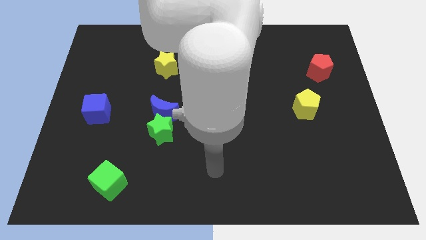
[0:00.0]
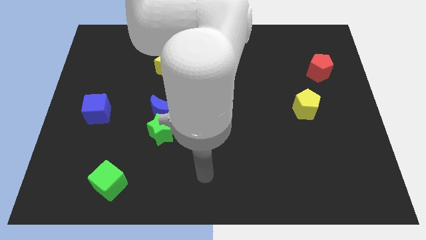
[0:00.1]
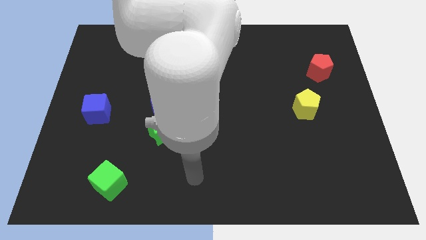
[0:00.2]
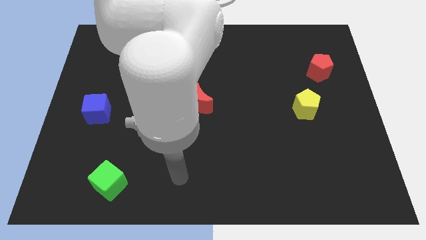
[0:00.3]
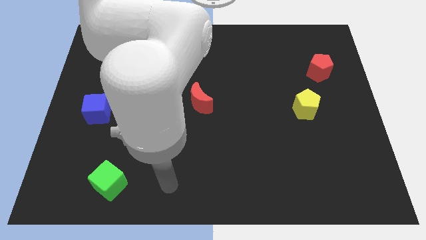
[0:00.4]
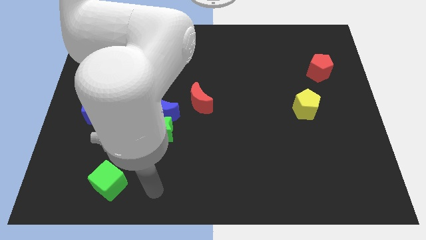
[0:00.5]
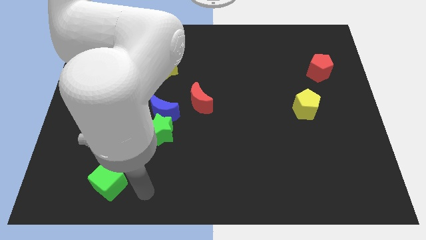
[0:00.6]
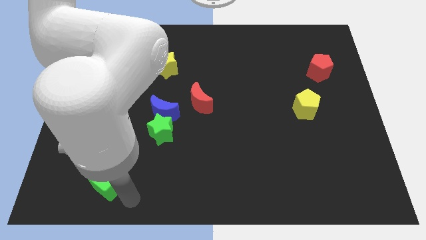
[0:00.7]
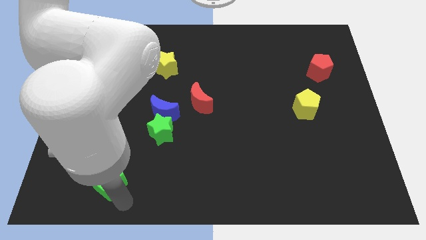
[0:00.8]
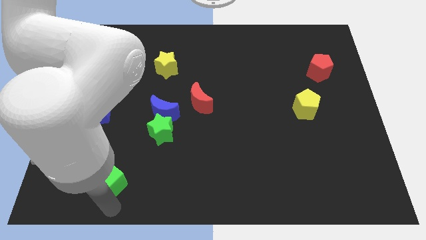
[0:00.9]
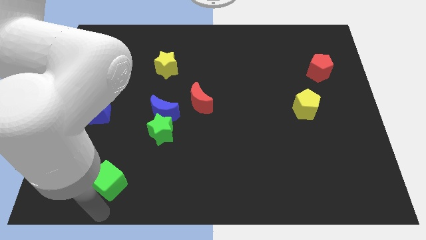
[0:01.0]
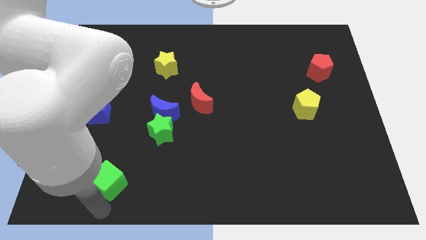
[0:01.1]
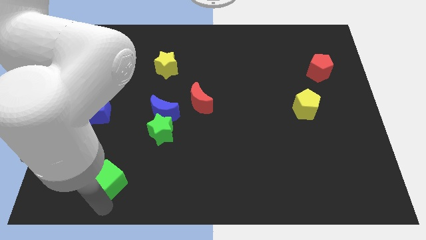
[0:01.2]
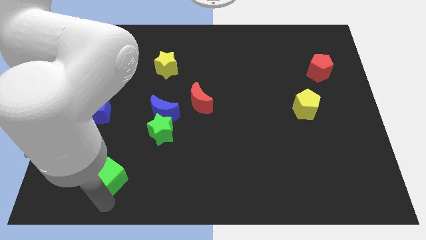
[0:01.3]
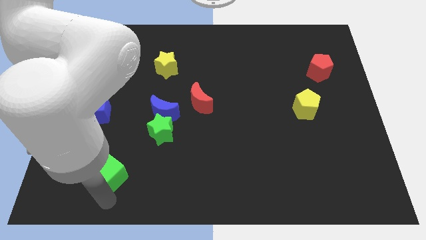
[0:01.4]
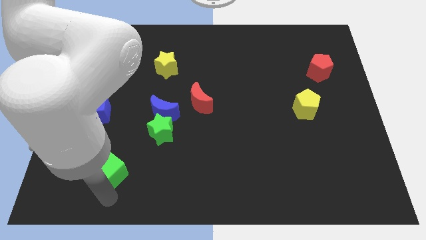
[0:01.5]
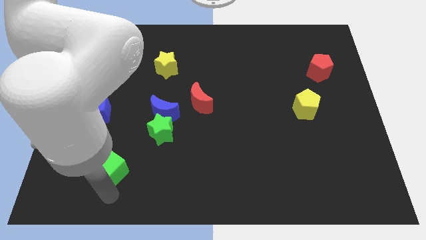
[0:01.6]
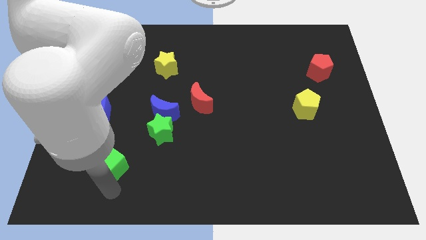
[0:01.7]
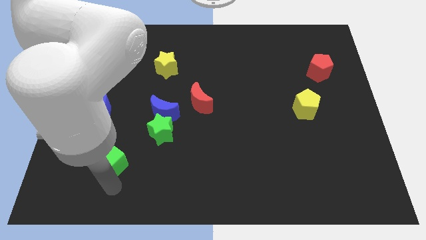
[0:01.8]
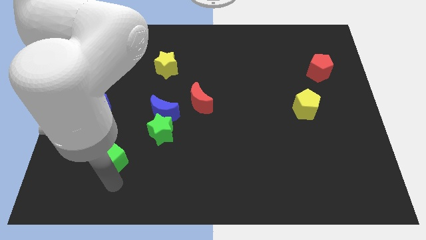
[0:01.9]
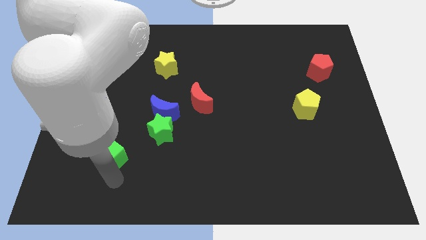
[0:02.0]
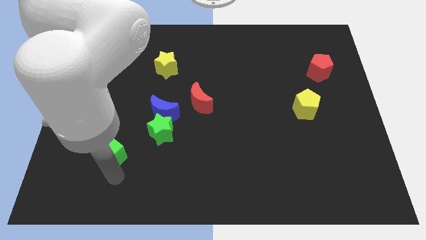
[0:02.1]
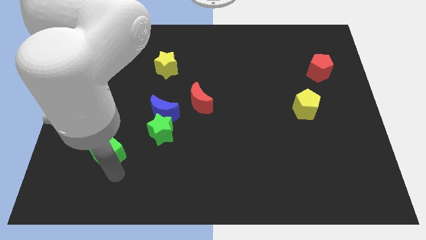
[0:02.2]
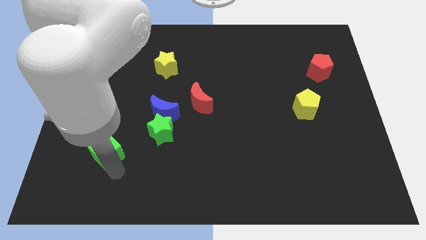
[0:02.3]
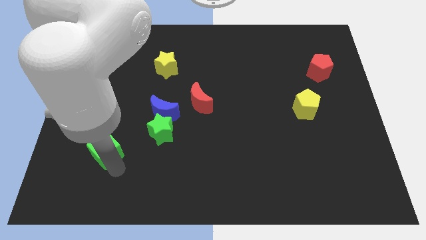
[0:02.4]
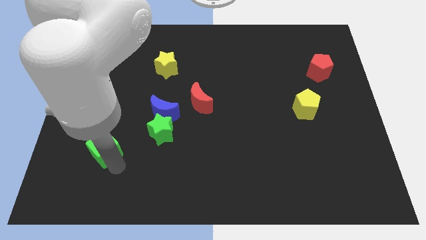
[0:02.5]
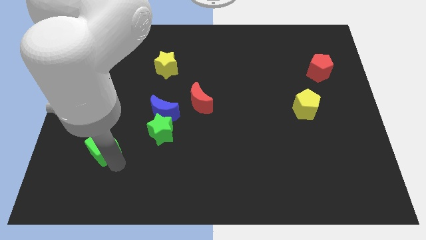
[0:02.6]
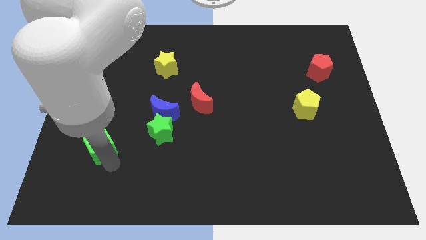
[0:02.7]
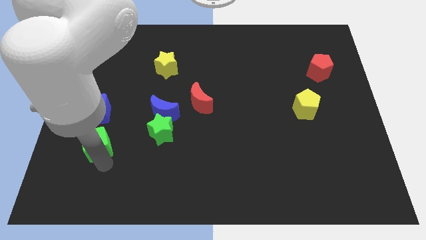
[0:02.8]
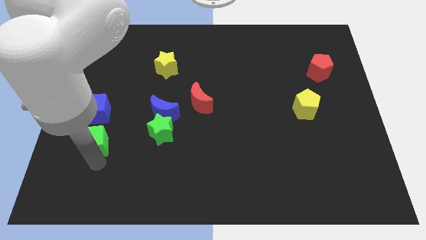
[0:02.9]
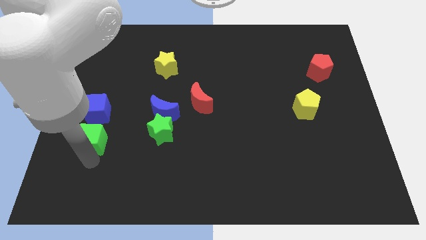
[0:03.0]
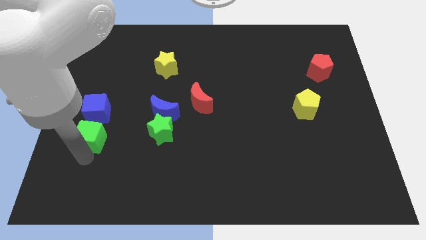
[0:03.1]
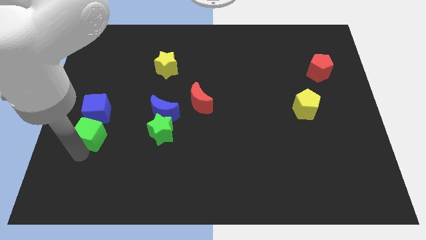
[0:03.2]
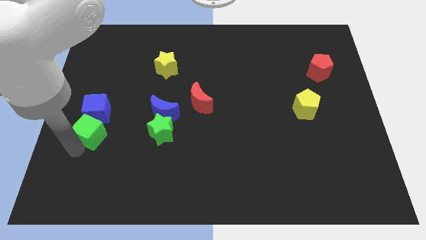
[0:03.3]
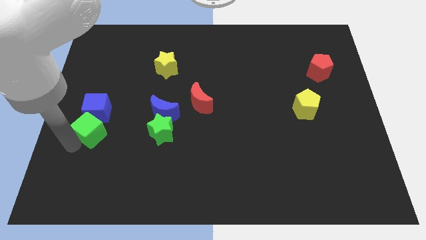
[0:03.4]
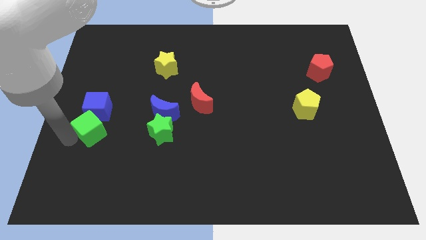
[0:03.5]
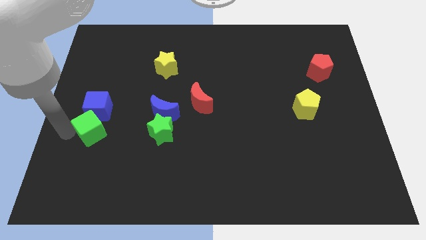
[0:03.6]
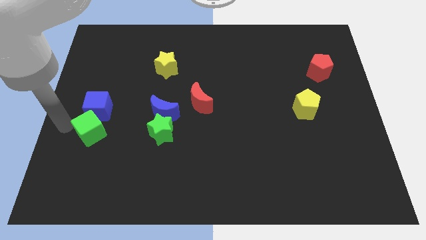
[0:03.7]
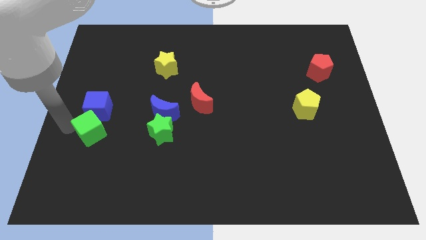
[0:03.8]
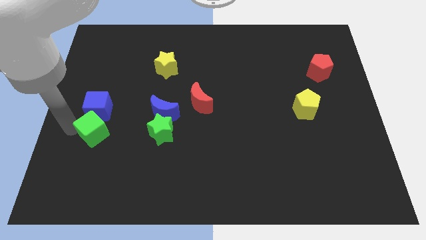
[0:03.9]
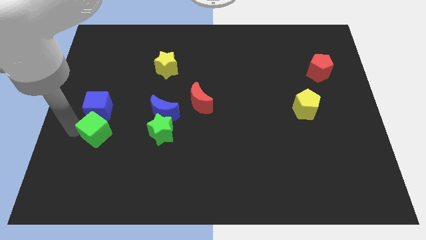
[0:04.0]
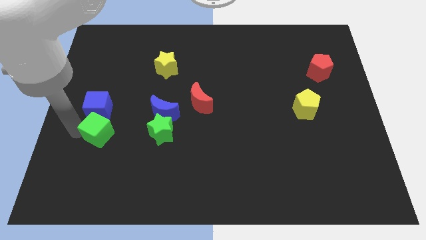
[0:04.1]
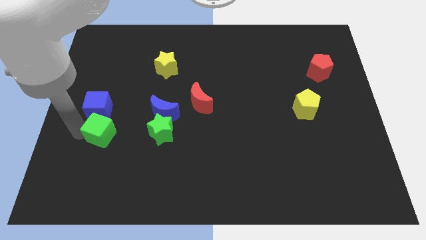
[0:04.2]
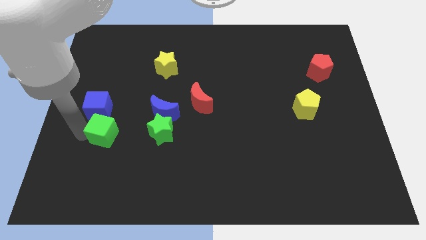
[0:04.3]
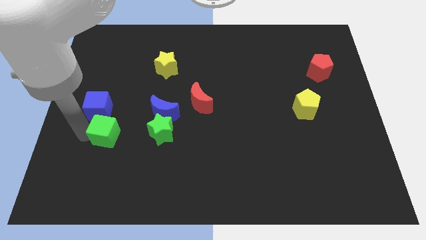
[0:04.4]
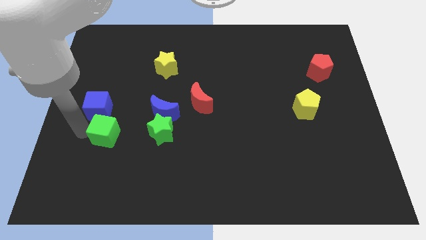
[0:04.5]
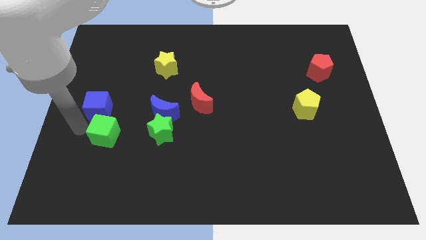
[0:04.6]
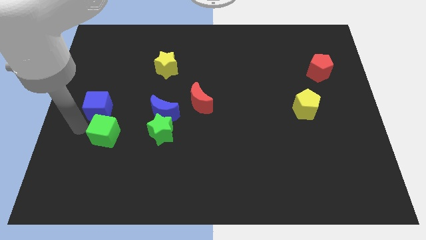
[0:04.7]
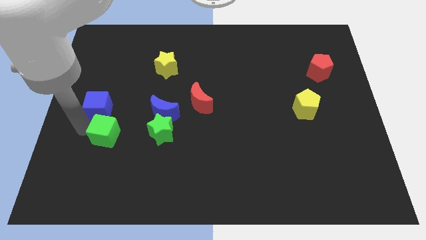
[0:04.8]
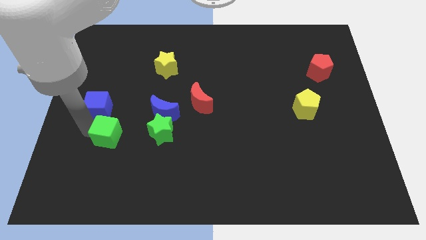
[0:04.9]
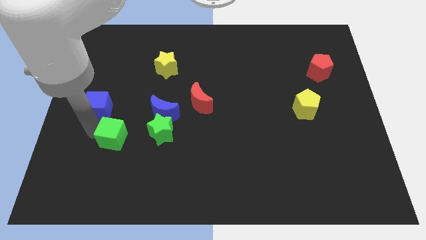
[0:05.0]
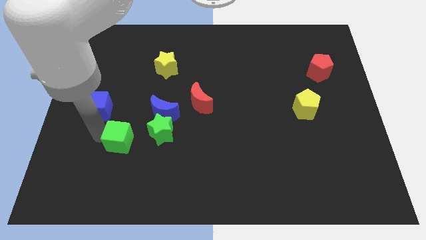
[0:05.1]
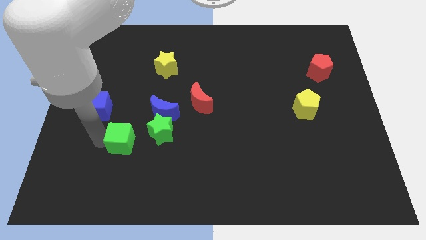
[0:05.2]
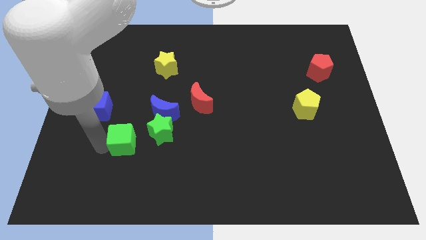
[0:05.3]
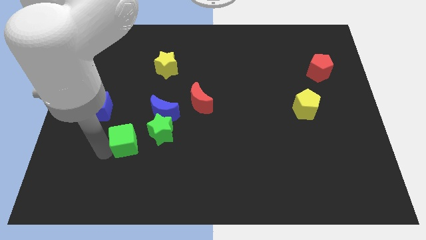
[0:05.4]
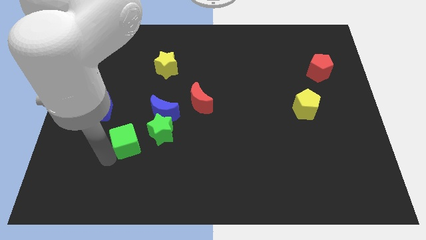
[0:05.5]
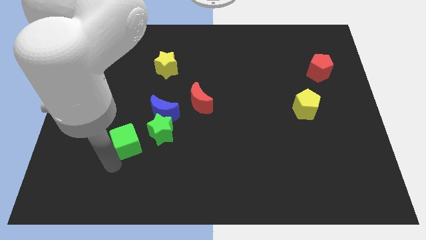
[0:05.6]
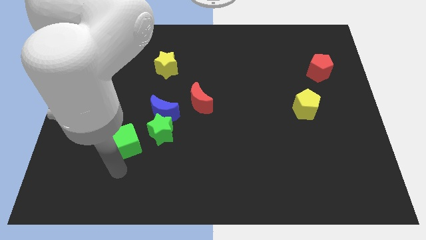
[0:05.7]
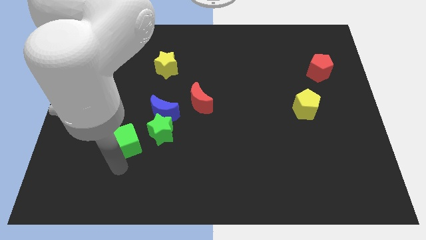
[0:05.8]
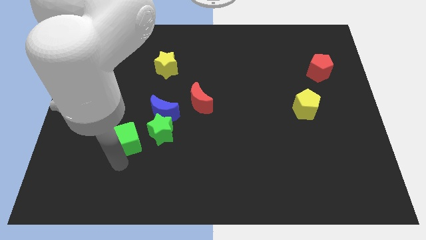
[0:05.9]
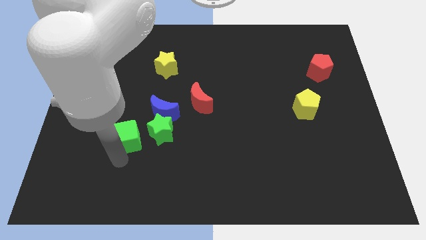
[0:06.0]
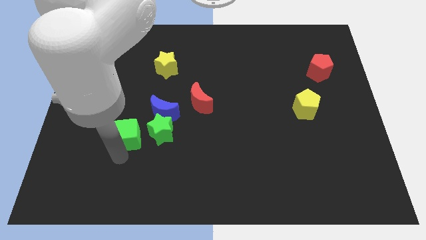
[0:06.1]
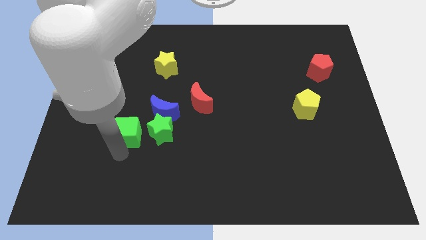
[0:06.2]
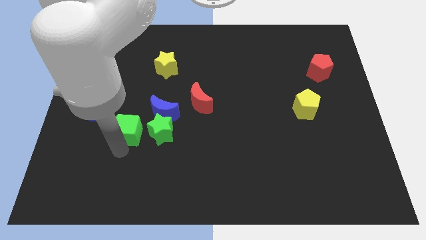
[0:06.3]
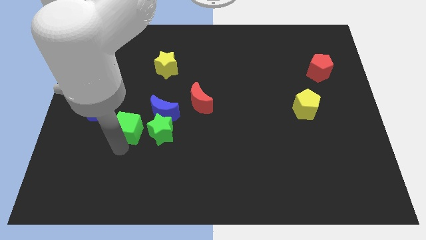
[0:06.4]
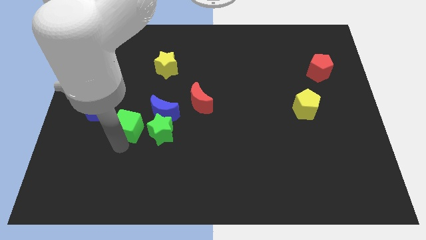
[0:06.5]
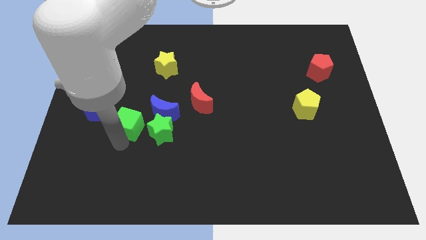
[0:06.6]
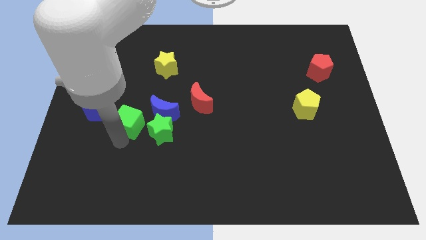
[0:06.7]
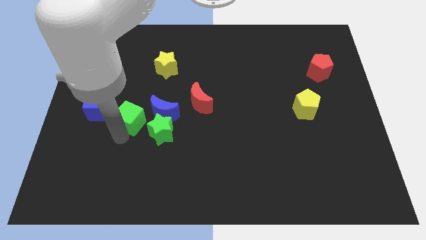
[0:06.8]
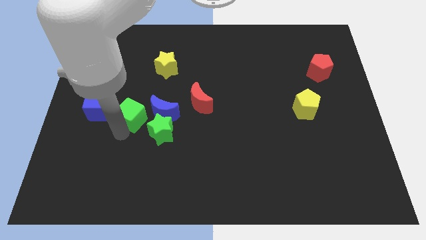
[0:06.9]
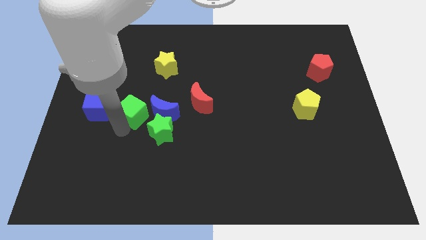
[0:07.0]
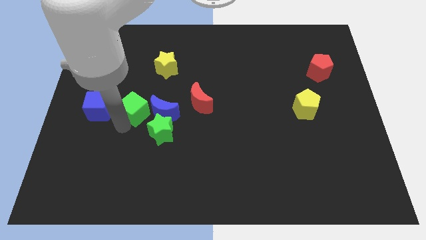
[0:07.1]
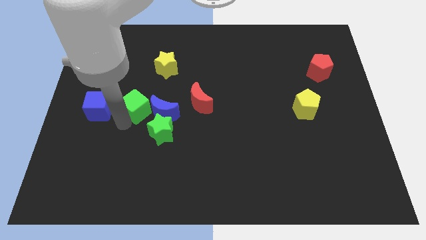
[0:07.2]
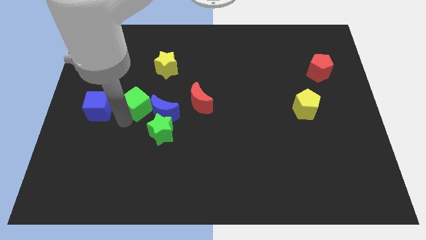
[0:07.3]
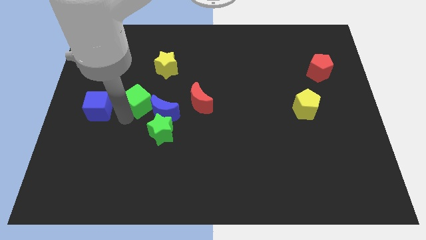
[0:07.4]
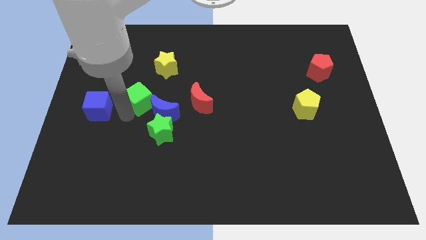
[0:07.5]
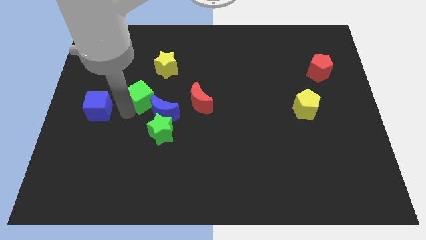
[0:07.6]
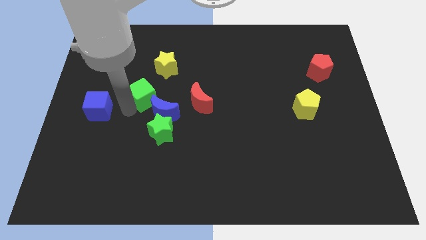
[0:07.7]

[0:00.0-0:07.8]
put the green cube to the bottom side of the yellow star

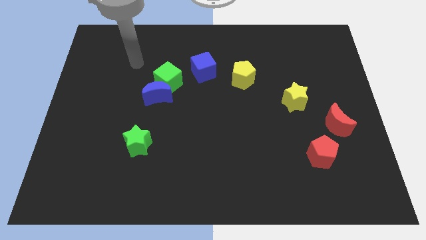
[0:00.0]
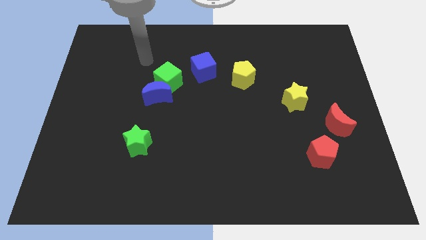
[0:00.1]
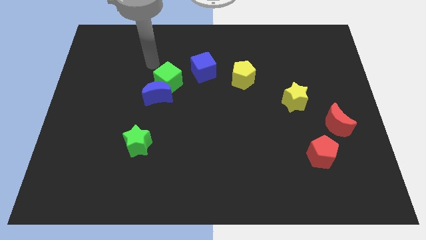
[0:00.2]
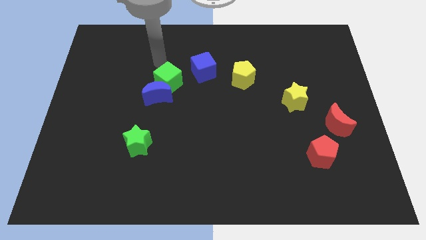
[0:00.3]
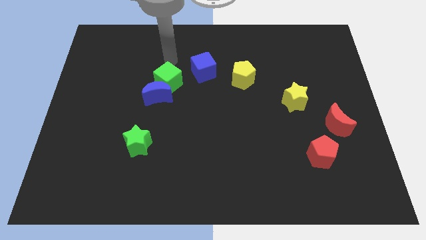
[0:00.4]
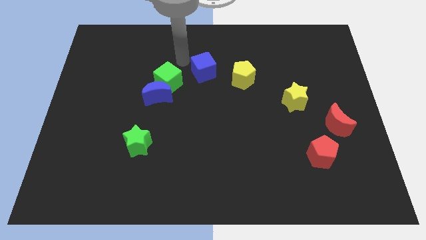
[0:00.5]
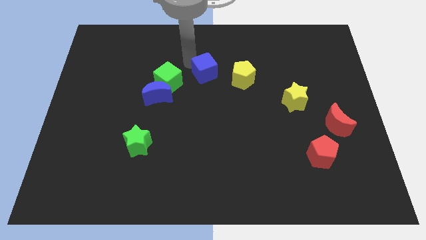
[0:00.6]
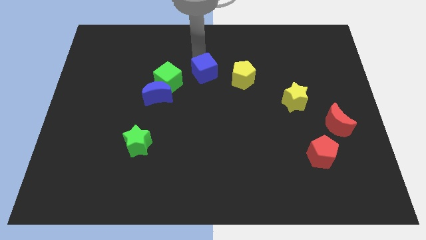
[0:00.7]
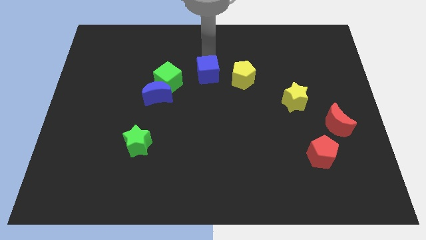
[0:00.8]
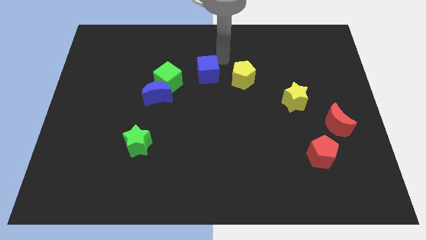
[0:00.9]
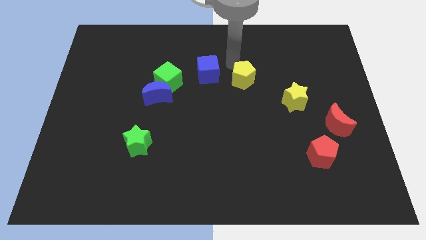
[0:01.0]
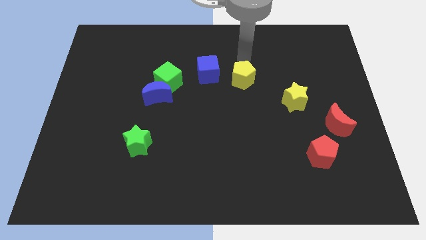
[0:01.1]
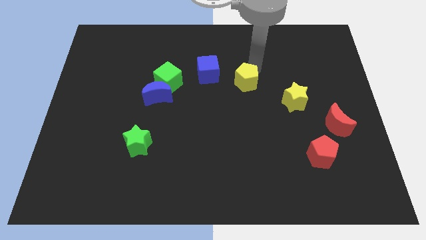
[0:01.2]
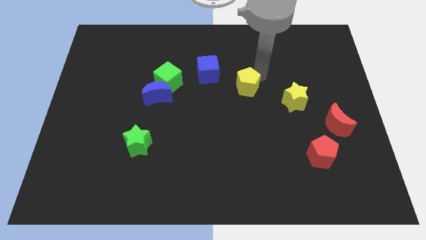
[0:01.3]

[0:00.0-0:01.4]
move the yellow star to the right side of the yellow pentagon
